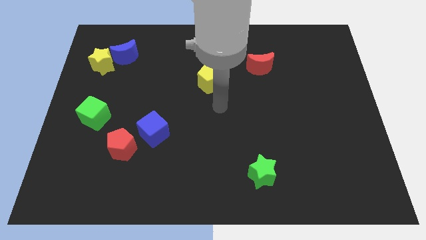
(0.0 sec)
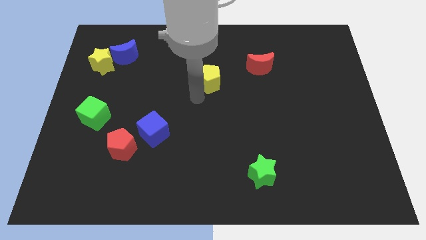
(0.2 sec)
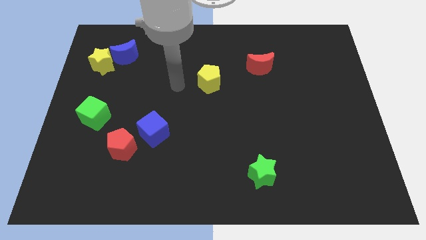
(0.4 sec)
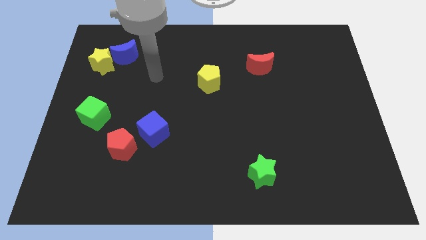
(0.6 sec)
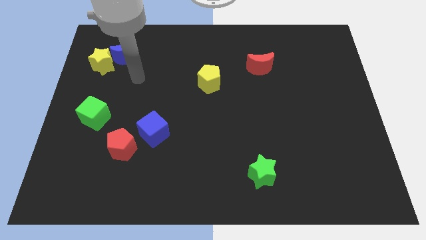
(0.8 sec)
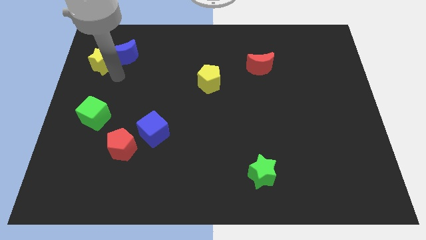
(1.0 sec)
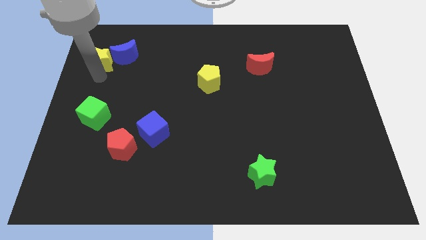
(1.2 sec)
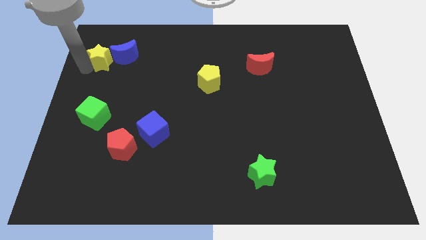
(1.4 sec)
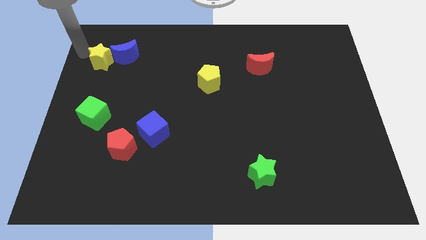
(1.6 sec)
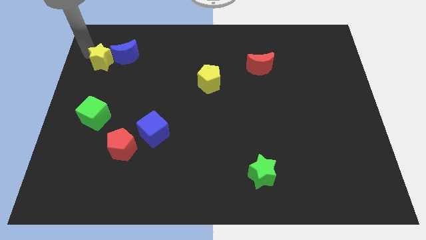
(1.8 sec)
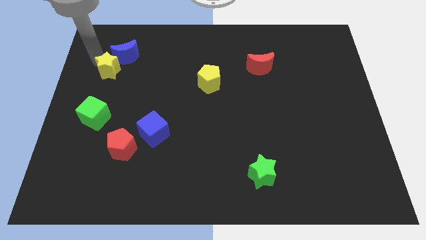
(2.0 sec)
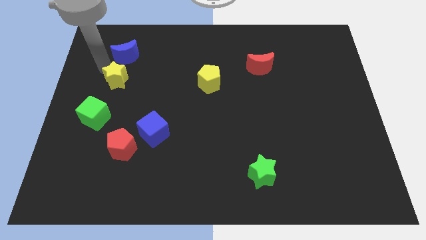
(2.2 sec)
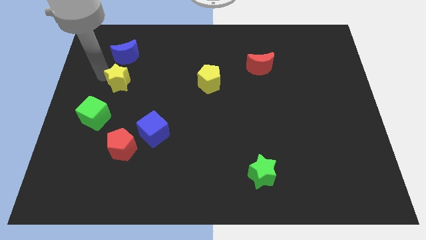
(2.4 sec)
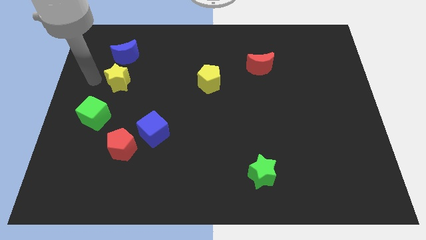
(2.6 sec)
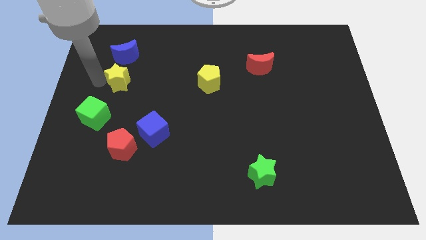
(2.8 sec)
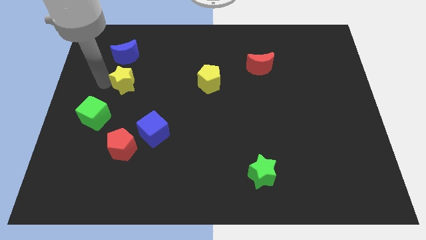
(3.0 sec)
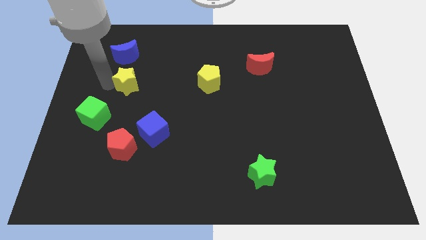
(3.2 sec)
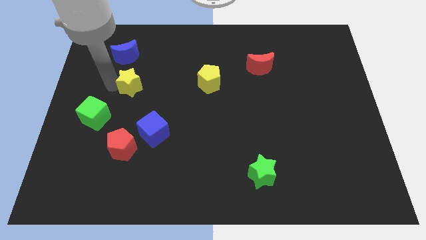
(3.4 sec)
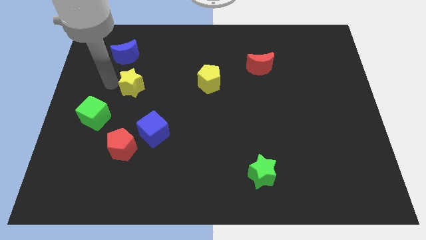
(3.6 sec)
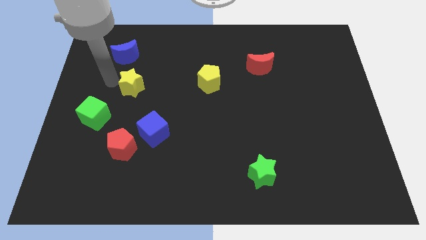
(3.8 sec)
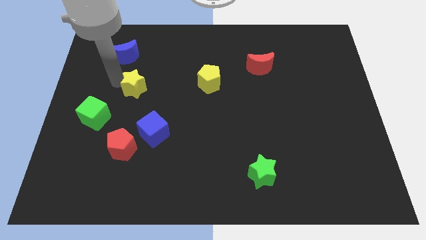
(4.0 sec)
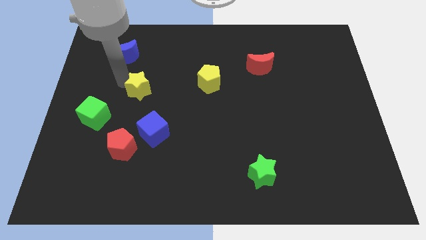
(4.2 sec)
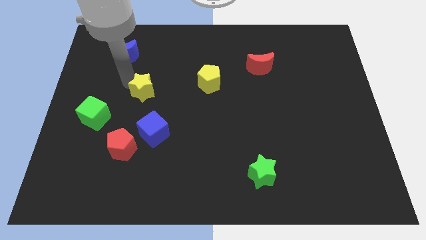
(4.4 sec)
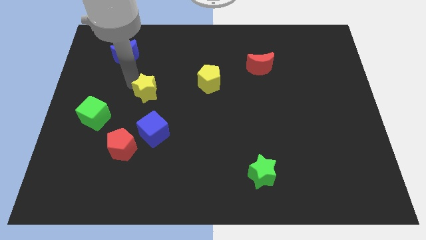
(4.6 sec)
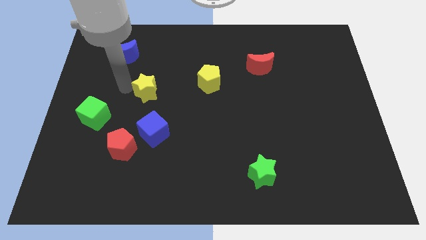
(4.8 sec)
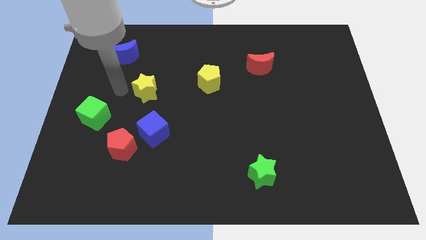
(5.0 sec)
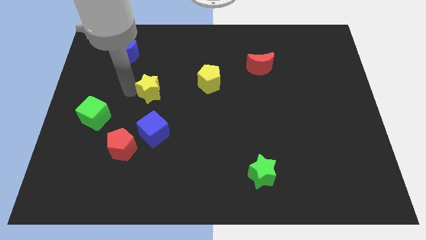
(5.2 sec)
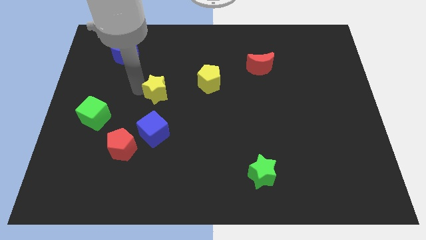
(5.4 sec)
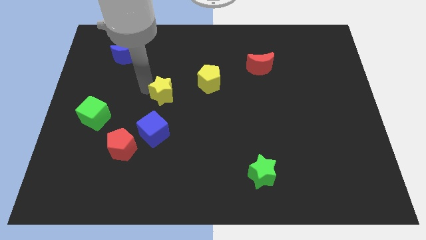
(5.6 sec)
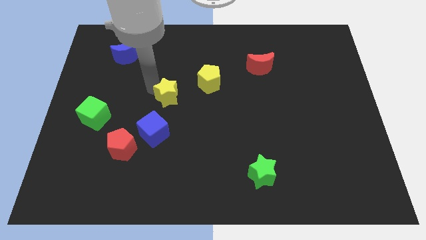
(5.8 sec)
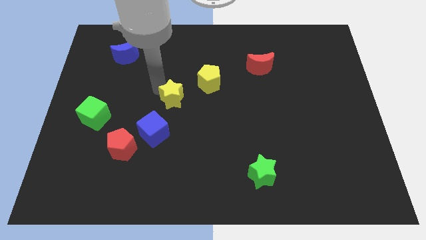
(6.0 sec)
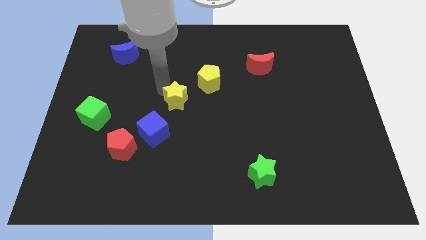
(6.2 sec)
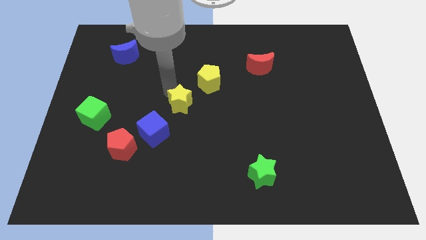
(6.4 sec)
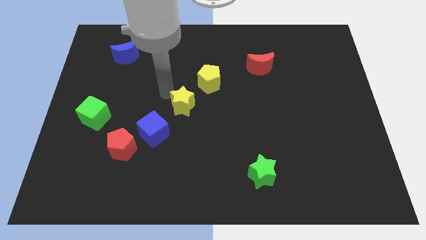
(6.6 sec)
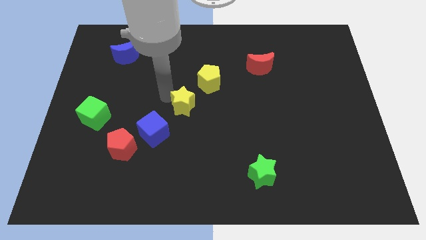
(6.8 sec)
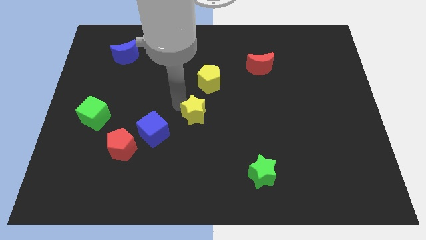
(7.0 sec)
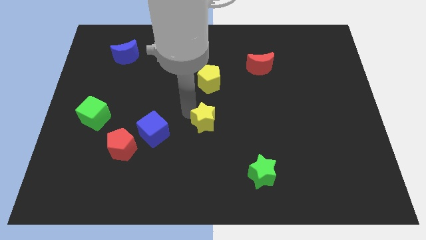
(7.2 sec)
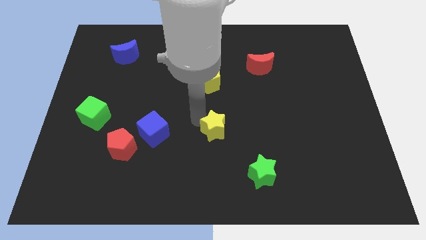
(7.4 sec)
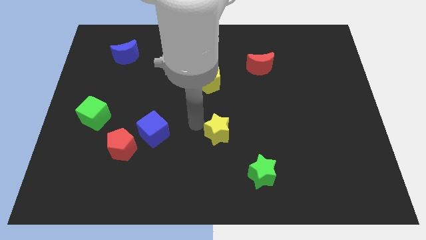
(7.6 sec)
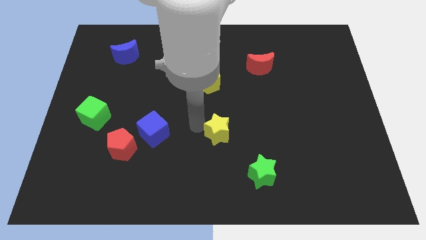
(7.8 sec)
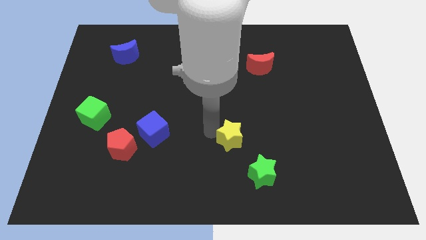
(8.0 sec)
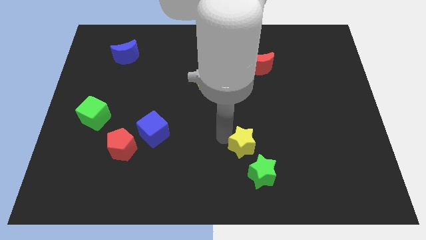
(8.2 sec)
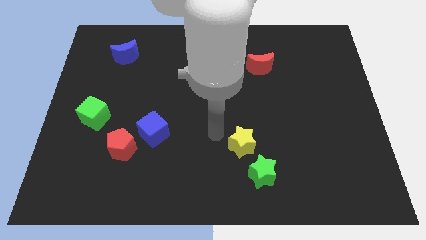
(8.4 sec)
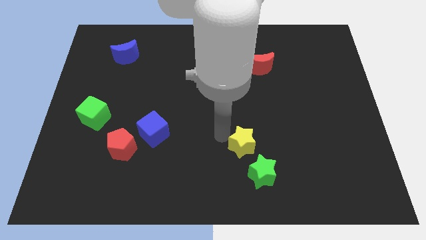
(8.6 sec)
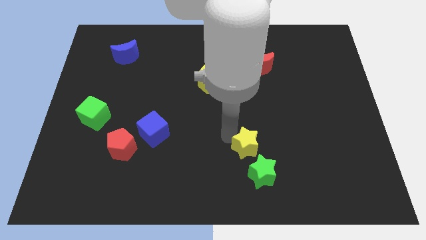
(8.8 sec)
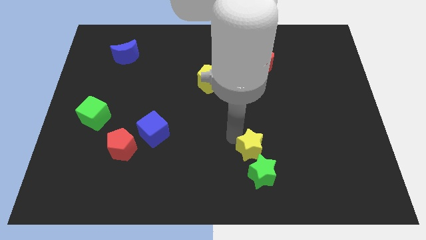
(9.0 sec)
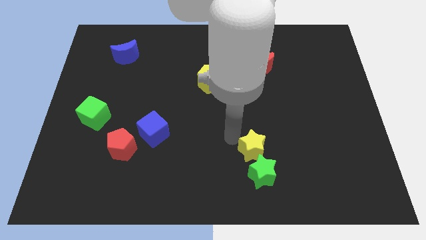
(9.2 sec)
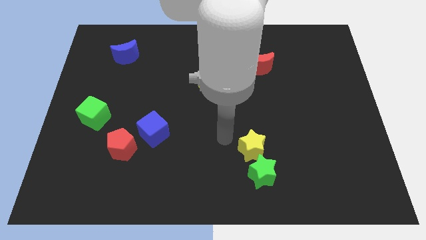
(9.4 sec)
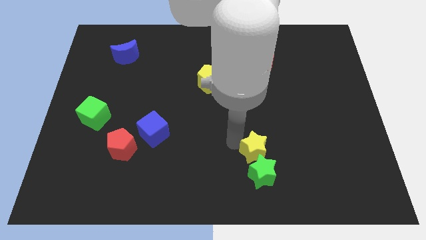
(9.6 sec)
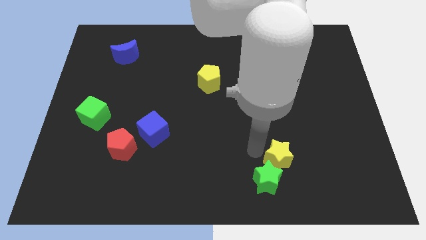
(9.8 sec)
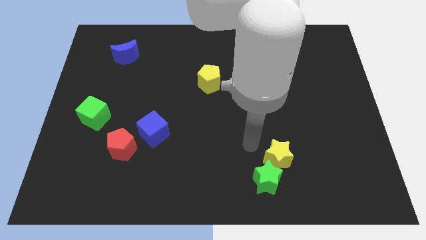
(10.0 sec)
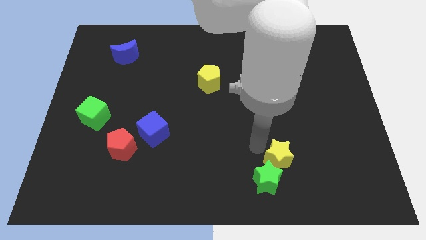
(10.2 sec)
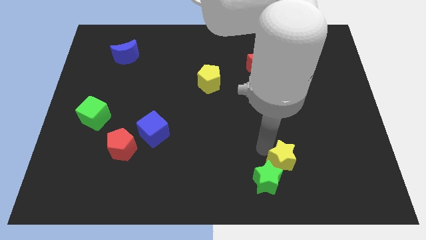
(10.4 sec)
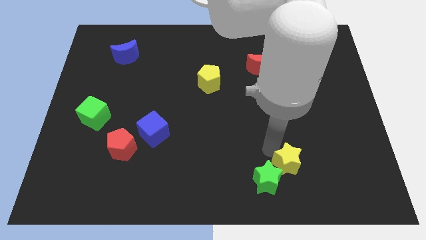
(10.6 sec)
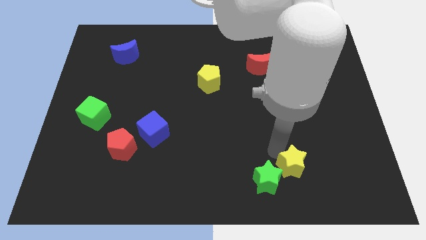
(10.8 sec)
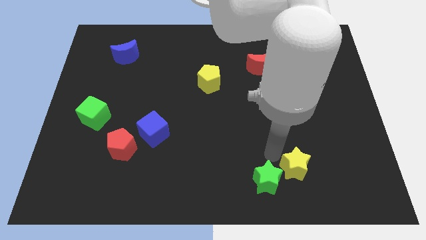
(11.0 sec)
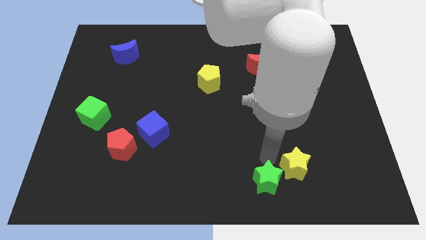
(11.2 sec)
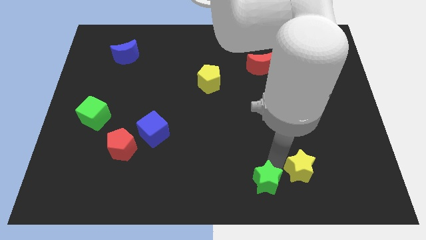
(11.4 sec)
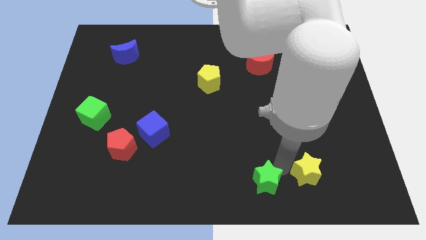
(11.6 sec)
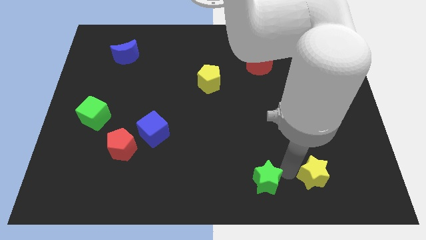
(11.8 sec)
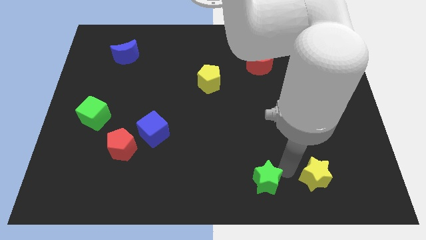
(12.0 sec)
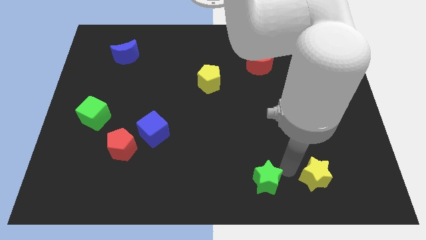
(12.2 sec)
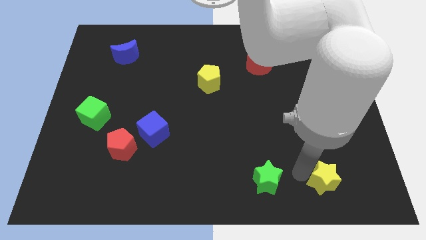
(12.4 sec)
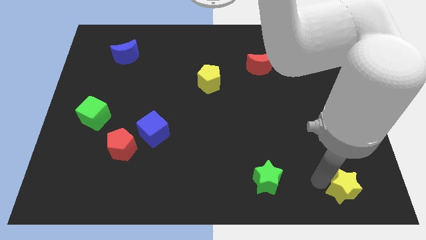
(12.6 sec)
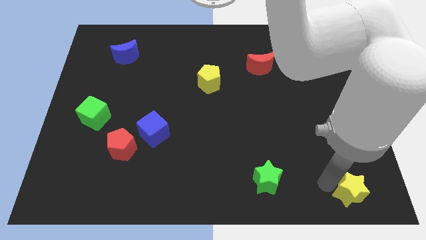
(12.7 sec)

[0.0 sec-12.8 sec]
move the yellow star to the bottom right of the board
